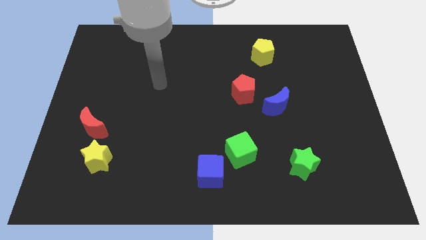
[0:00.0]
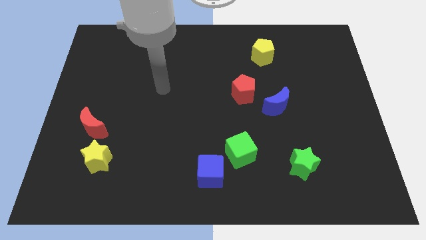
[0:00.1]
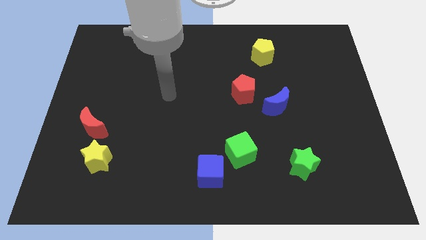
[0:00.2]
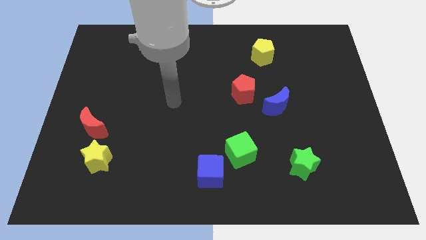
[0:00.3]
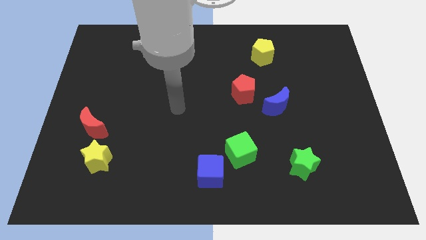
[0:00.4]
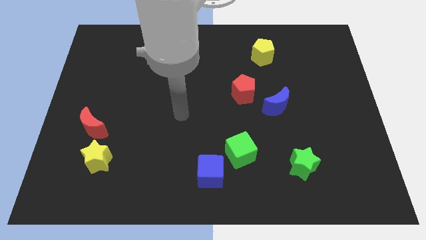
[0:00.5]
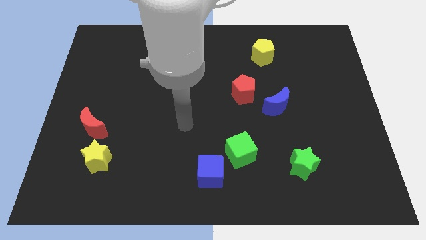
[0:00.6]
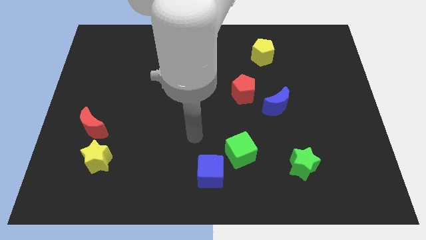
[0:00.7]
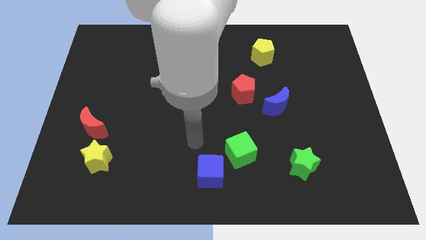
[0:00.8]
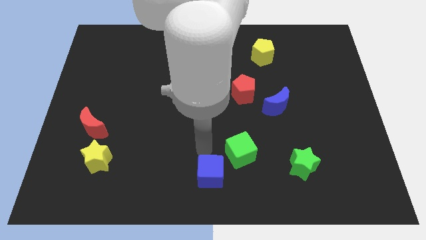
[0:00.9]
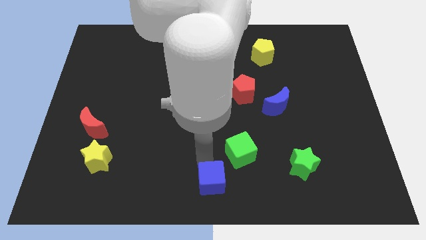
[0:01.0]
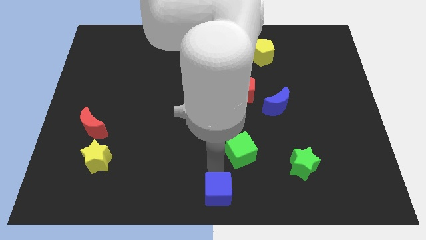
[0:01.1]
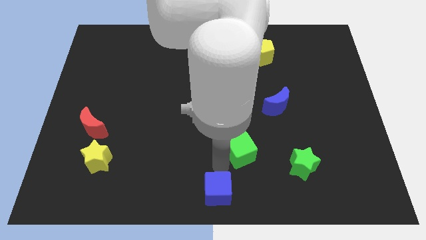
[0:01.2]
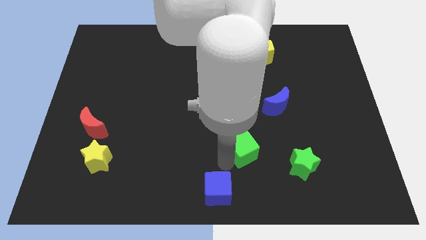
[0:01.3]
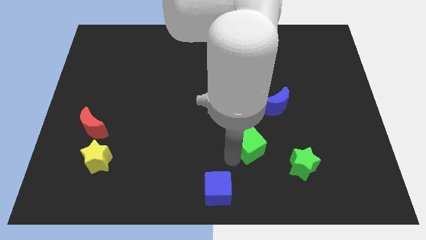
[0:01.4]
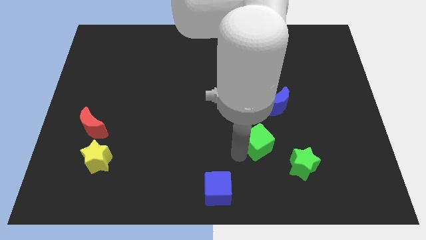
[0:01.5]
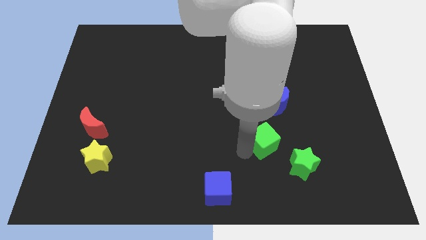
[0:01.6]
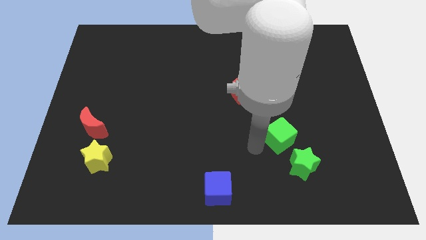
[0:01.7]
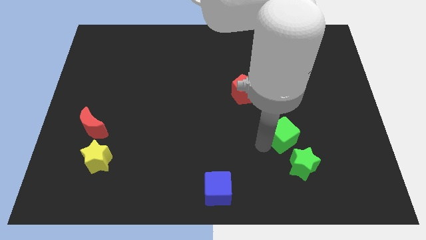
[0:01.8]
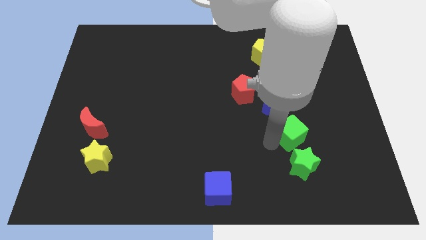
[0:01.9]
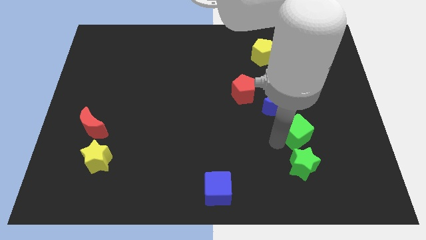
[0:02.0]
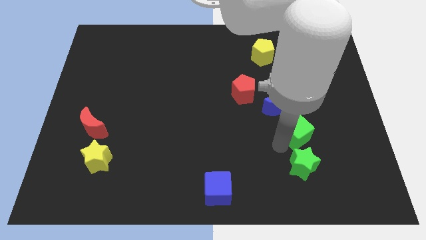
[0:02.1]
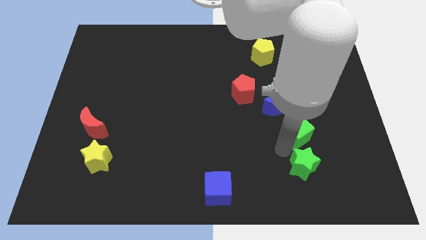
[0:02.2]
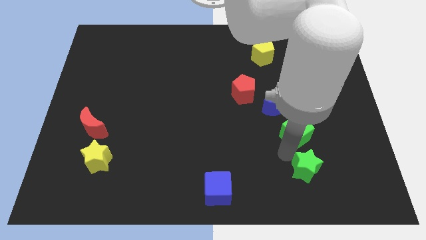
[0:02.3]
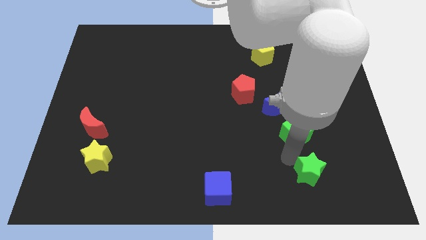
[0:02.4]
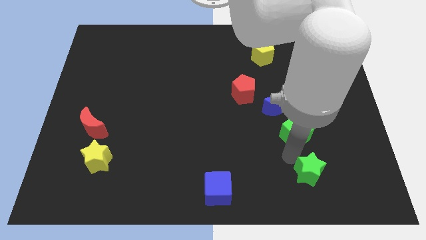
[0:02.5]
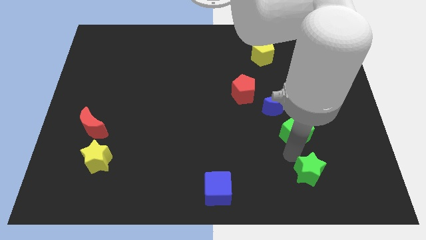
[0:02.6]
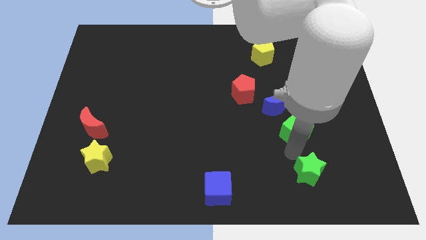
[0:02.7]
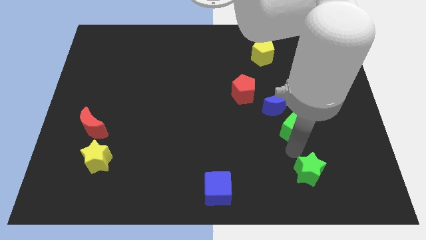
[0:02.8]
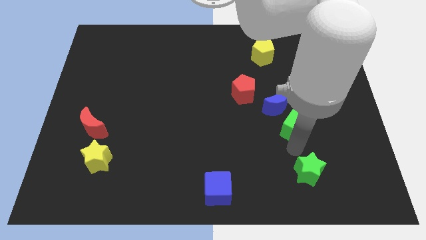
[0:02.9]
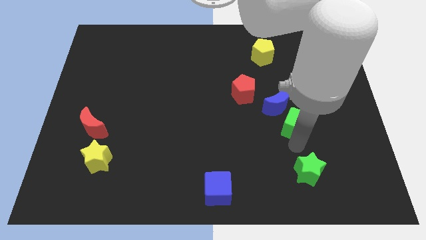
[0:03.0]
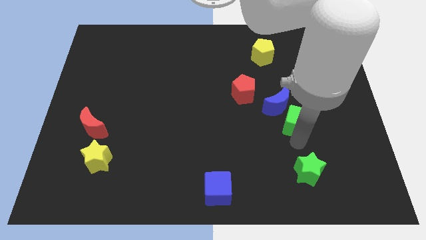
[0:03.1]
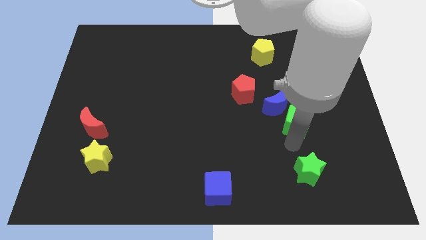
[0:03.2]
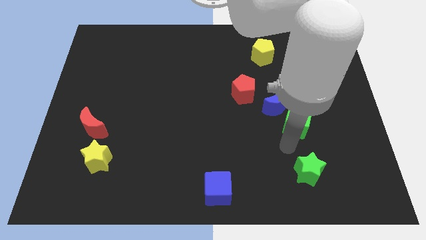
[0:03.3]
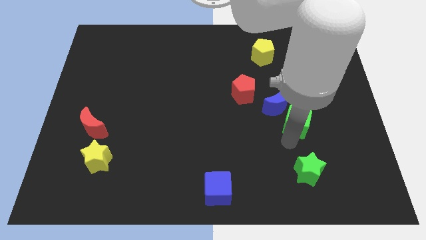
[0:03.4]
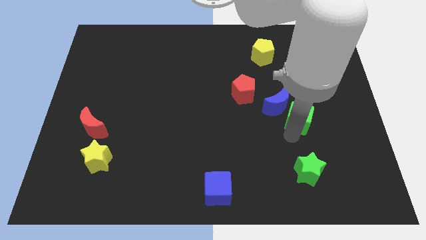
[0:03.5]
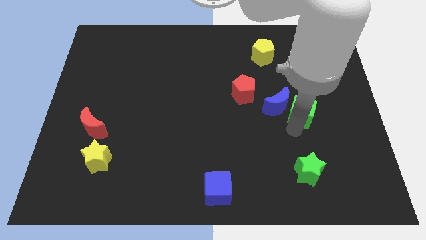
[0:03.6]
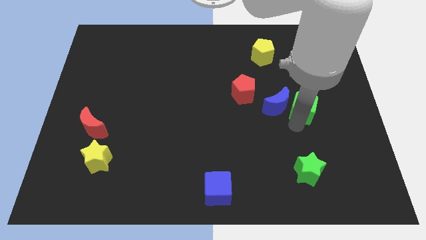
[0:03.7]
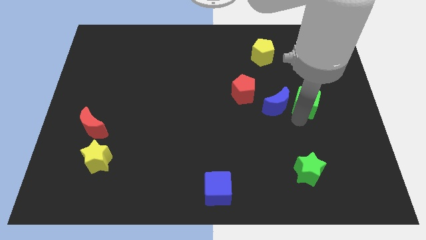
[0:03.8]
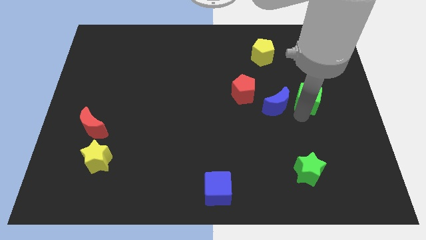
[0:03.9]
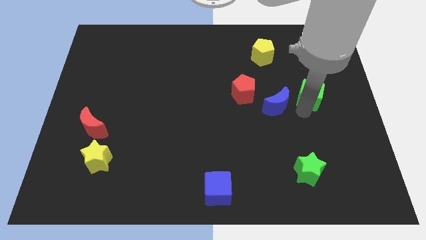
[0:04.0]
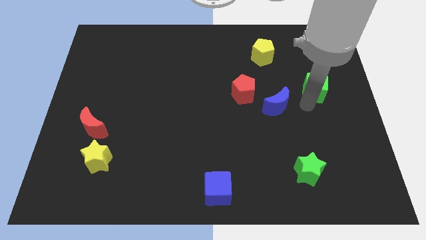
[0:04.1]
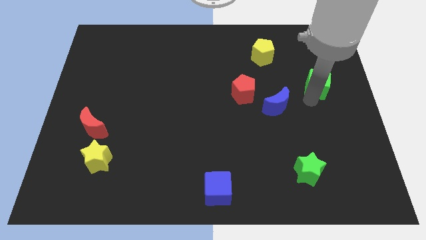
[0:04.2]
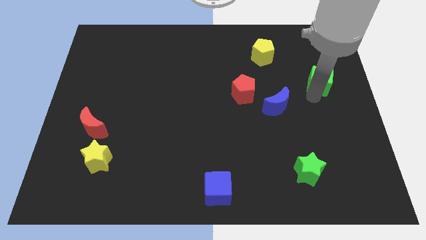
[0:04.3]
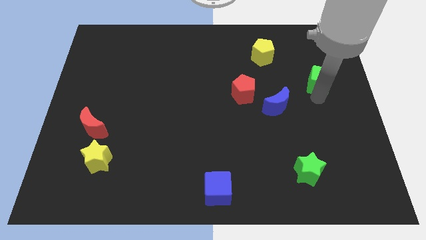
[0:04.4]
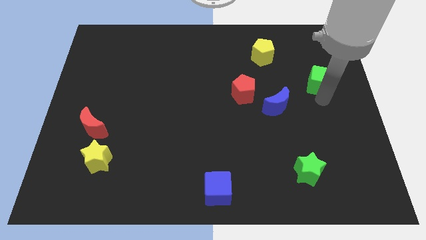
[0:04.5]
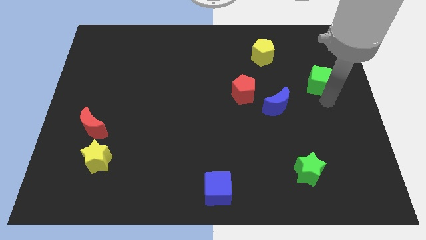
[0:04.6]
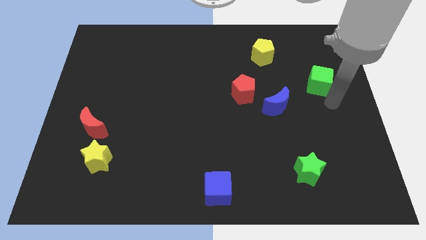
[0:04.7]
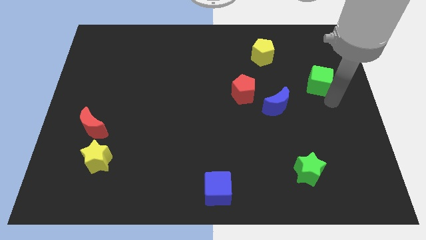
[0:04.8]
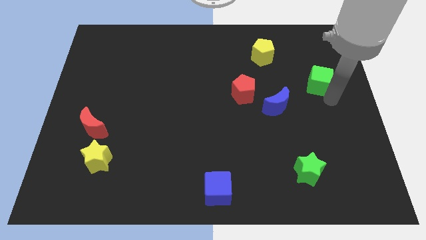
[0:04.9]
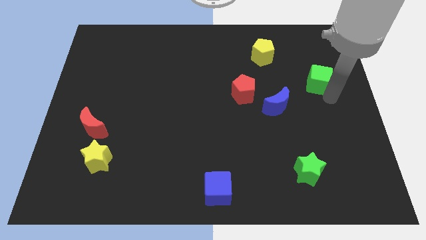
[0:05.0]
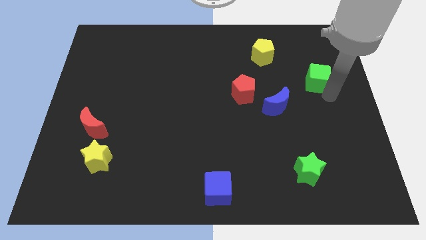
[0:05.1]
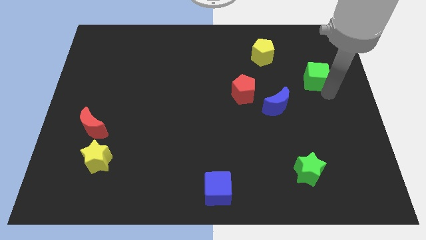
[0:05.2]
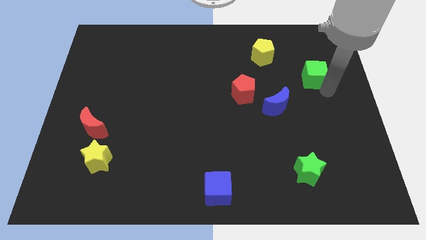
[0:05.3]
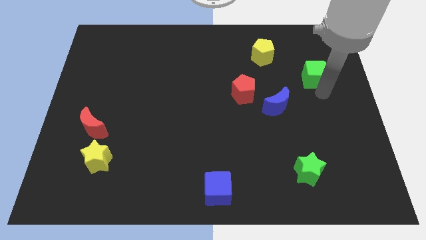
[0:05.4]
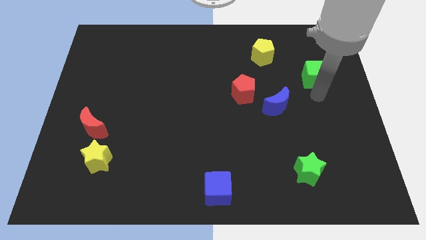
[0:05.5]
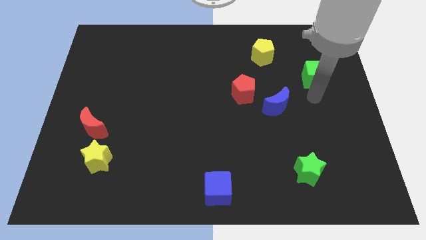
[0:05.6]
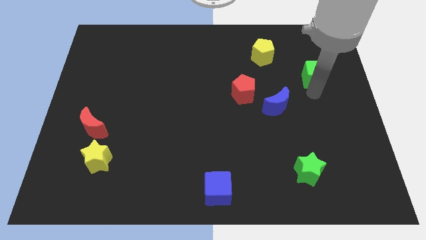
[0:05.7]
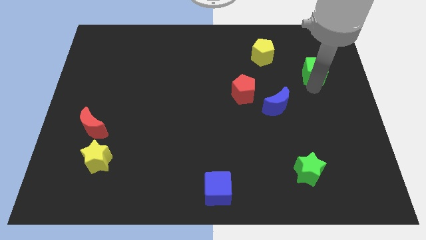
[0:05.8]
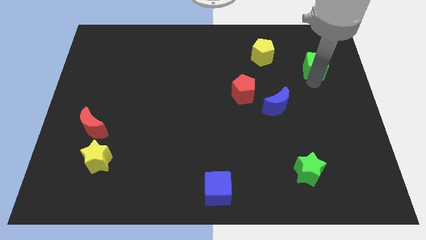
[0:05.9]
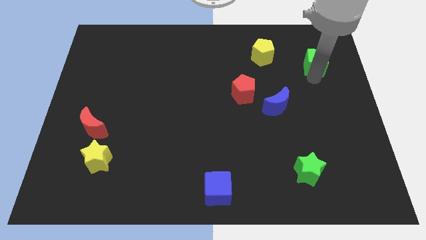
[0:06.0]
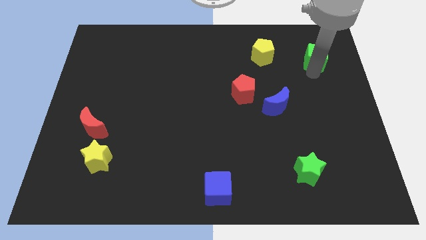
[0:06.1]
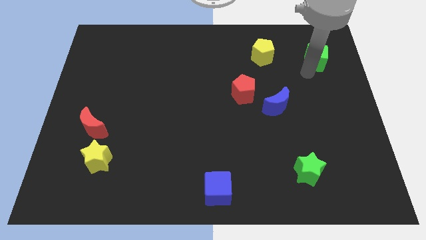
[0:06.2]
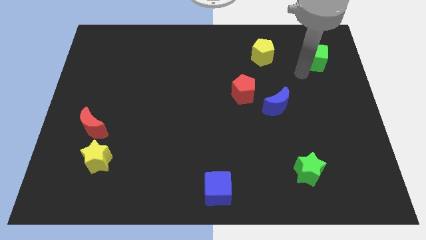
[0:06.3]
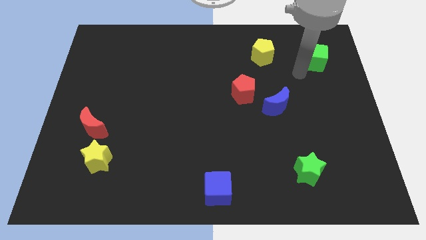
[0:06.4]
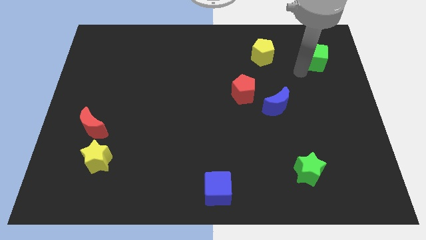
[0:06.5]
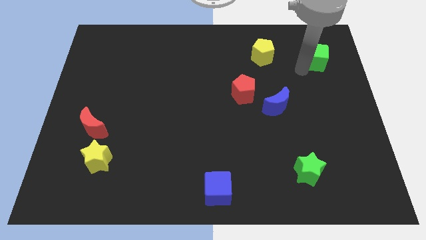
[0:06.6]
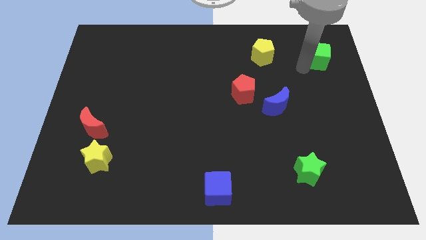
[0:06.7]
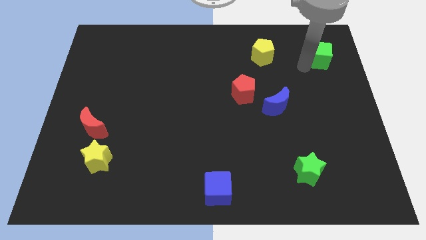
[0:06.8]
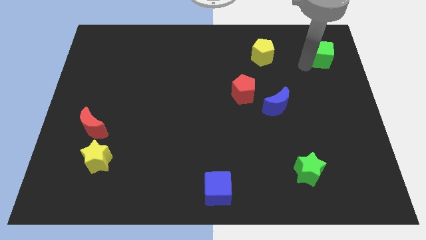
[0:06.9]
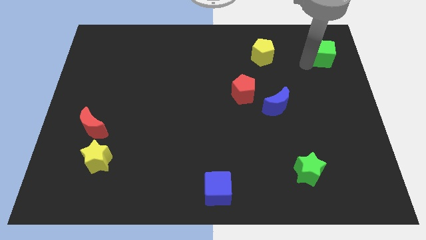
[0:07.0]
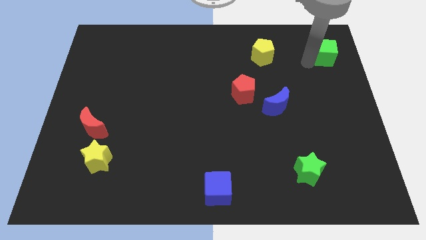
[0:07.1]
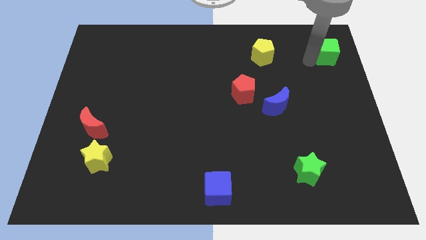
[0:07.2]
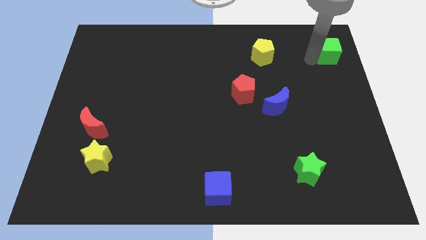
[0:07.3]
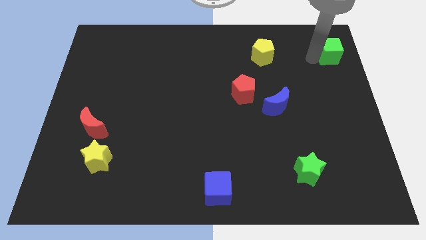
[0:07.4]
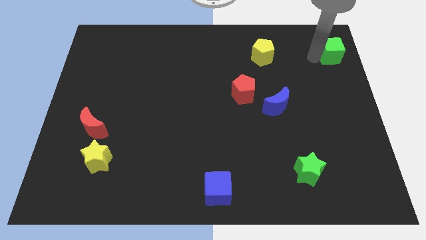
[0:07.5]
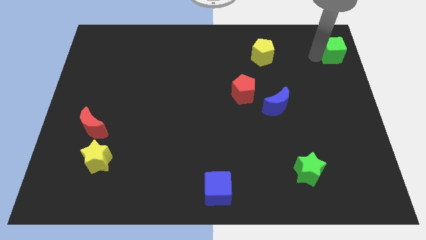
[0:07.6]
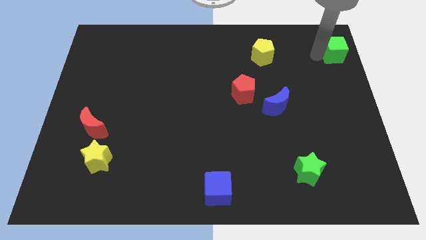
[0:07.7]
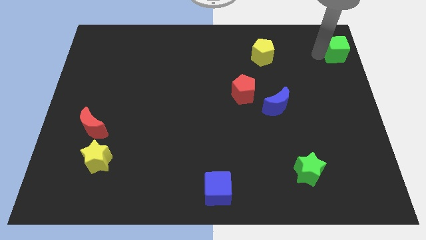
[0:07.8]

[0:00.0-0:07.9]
push the green cube to the upper right corner
